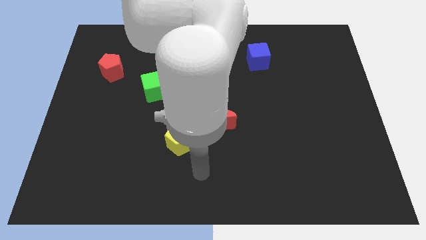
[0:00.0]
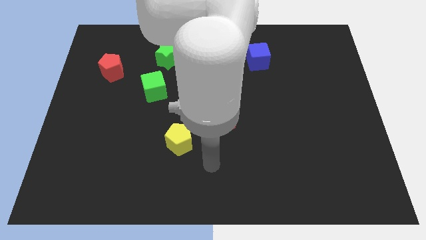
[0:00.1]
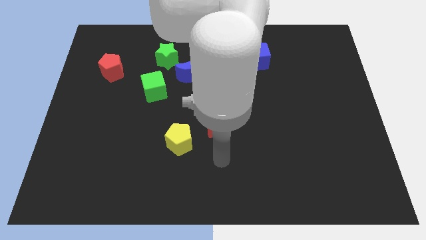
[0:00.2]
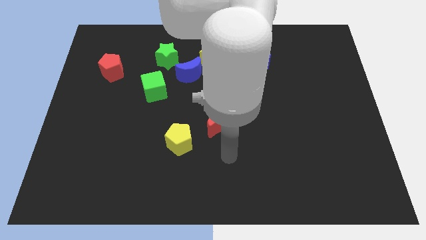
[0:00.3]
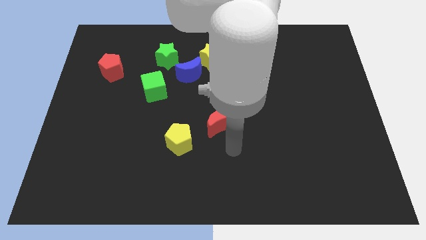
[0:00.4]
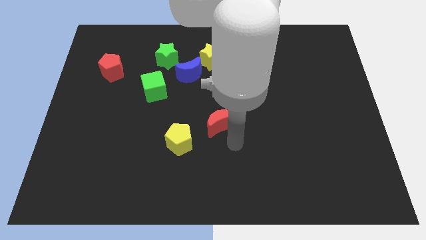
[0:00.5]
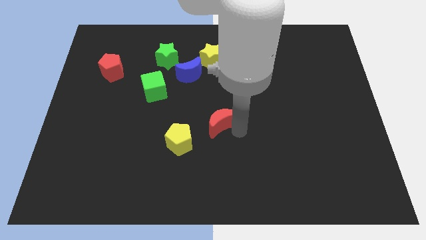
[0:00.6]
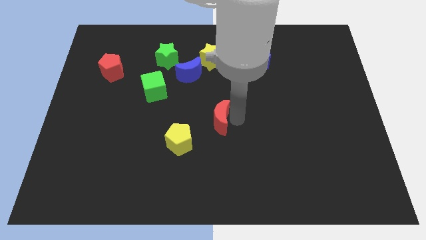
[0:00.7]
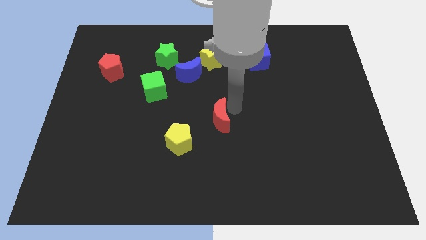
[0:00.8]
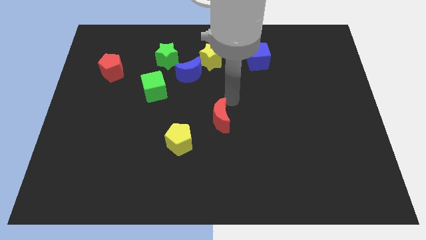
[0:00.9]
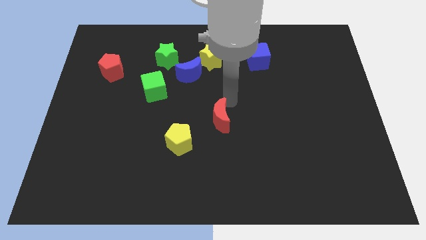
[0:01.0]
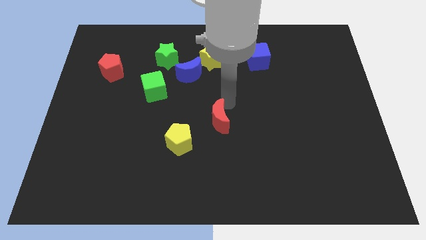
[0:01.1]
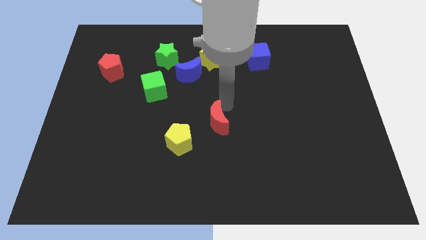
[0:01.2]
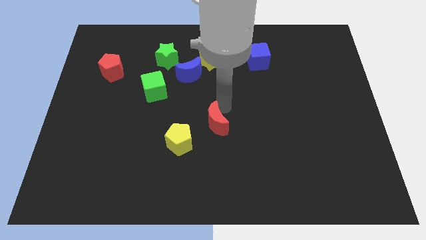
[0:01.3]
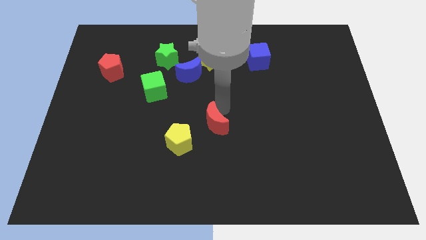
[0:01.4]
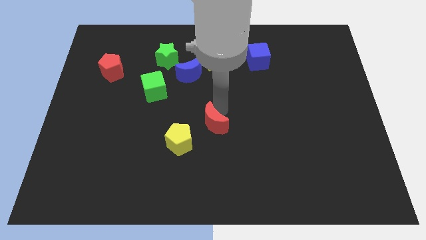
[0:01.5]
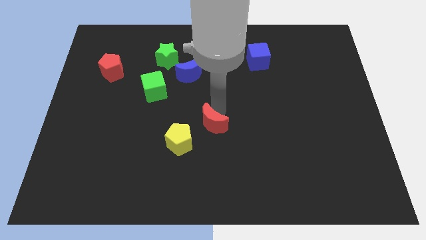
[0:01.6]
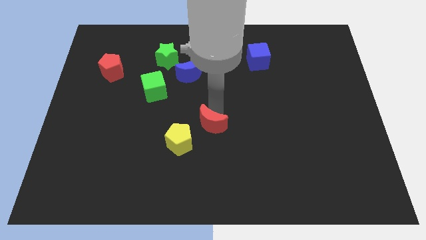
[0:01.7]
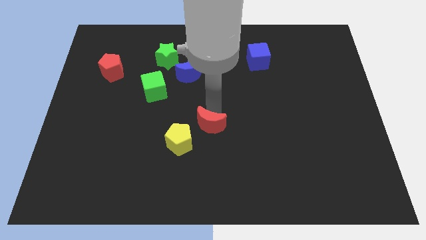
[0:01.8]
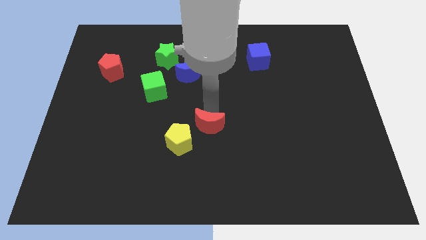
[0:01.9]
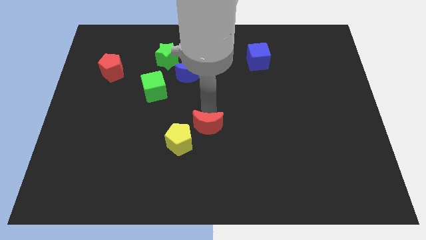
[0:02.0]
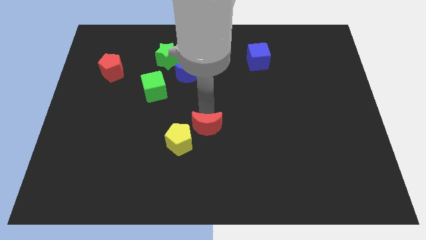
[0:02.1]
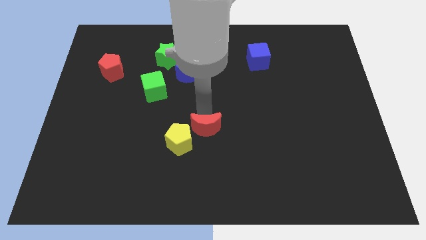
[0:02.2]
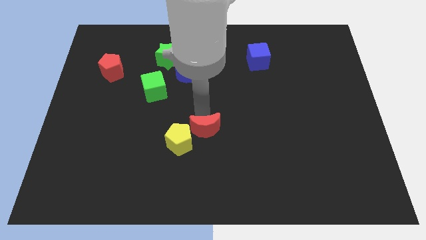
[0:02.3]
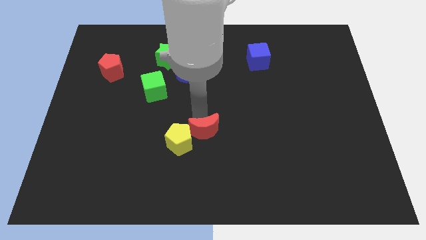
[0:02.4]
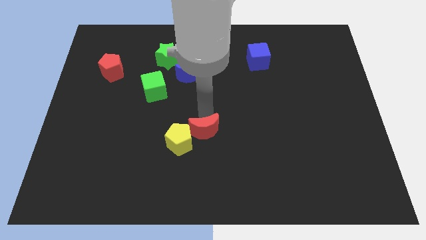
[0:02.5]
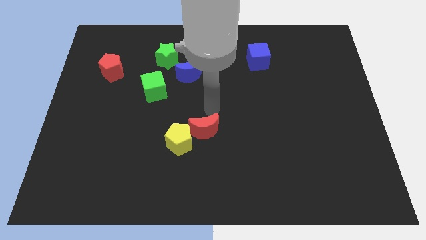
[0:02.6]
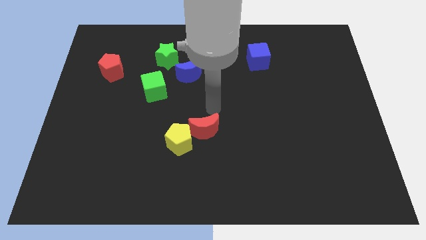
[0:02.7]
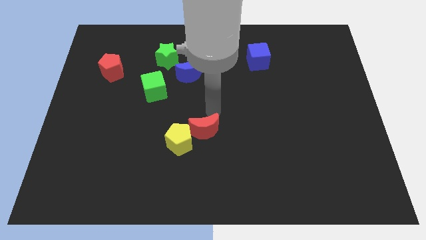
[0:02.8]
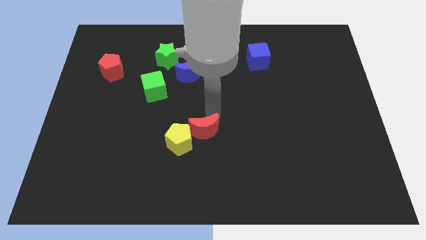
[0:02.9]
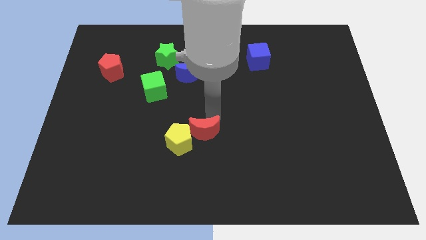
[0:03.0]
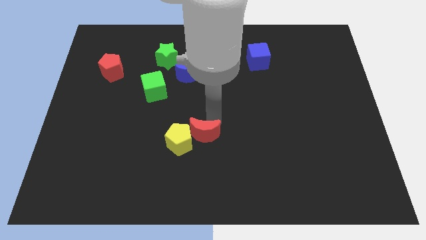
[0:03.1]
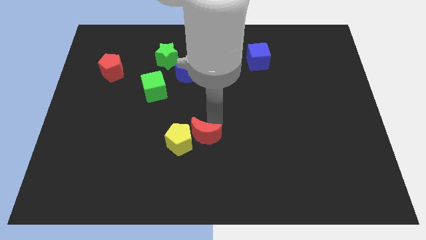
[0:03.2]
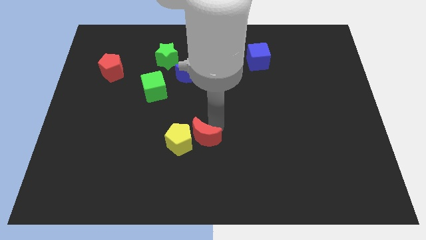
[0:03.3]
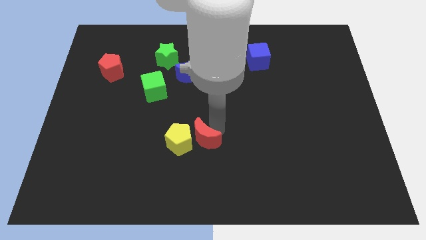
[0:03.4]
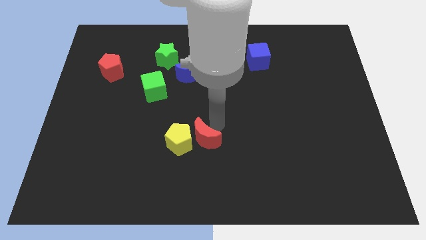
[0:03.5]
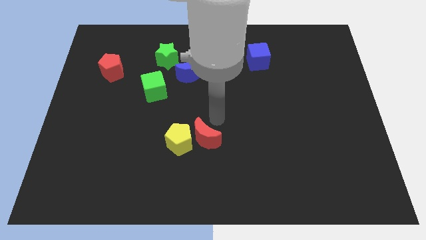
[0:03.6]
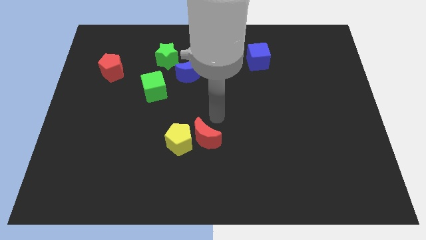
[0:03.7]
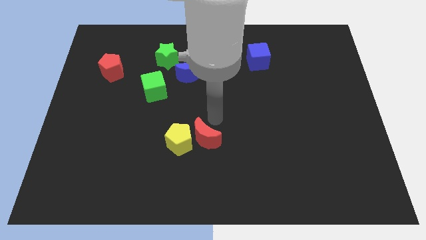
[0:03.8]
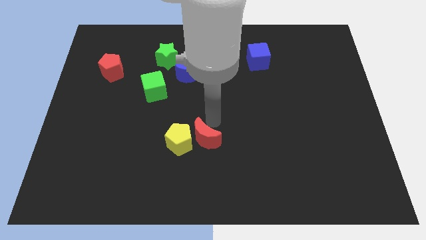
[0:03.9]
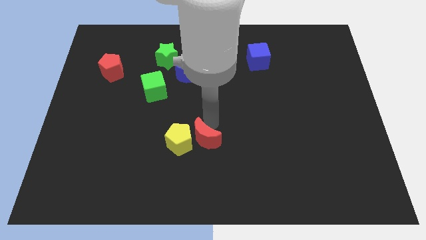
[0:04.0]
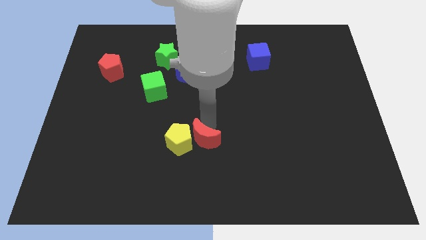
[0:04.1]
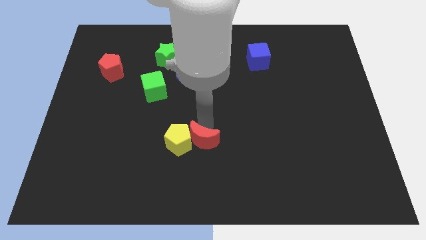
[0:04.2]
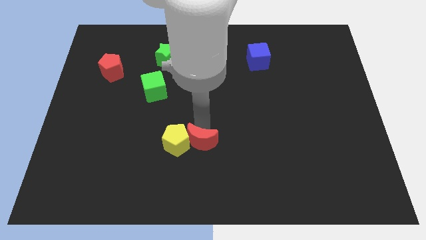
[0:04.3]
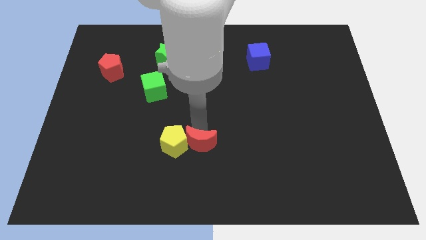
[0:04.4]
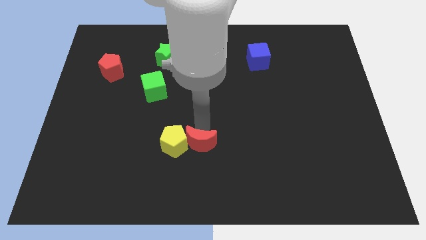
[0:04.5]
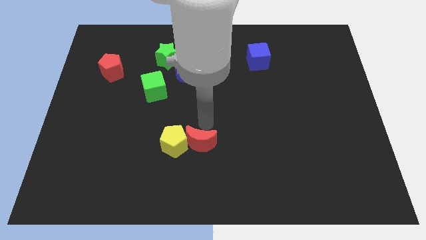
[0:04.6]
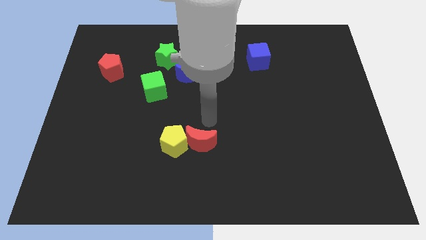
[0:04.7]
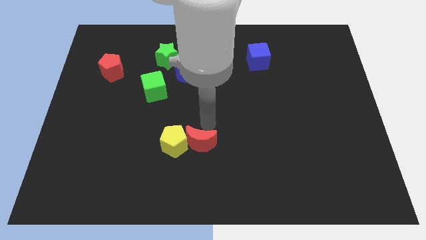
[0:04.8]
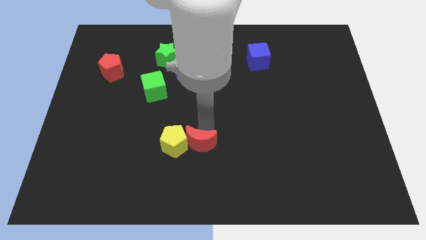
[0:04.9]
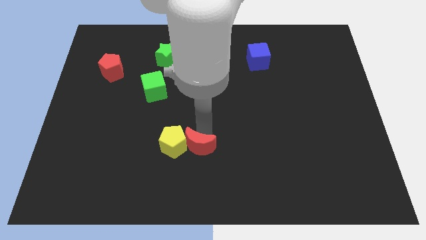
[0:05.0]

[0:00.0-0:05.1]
move the red moon diagonally downwards and left a little bit

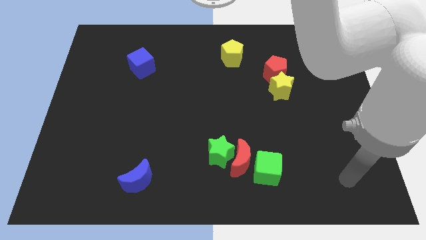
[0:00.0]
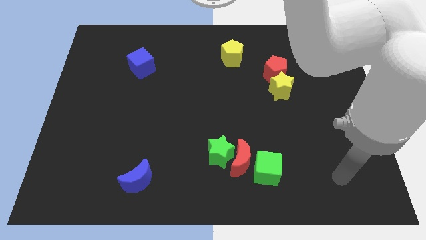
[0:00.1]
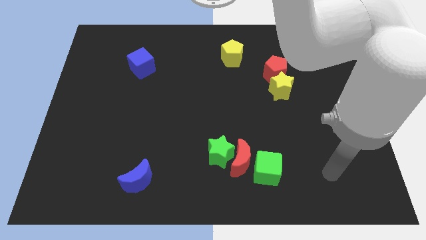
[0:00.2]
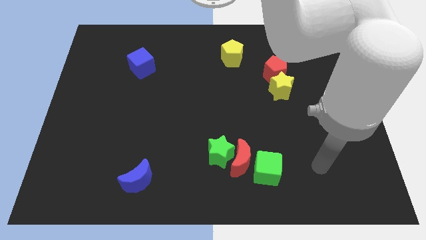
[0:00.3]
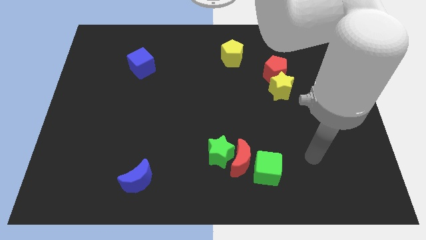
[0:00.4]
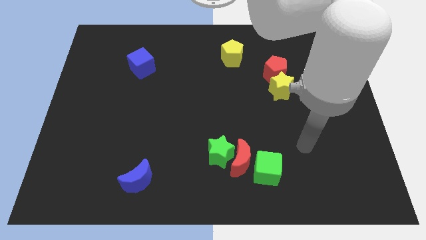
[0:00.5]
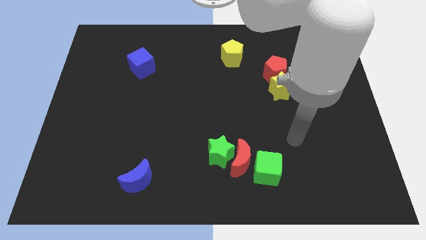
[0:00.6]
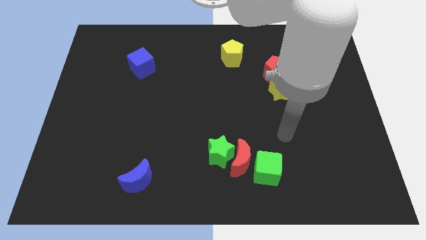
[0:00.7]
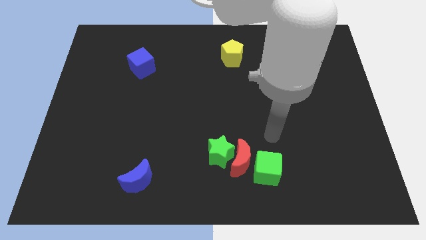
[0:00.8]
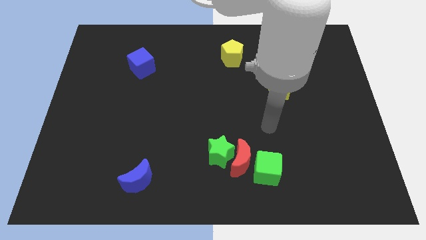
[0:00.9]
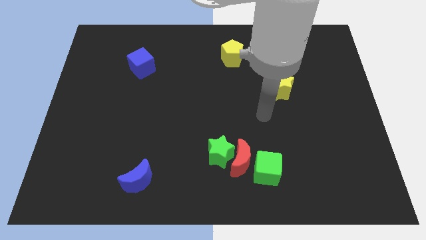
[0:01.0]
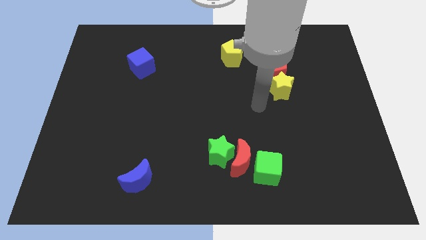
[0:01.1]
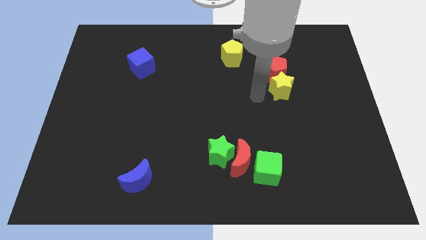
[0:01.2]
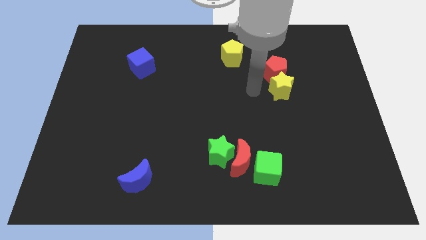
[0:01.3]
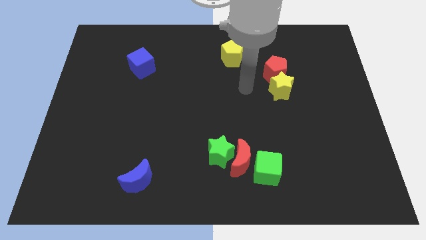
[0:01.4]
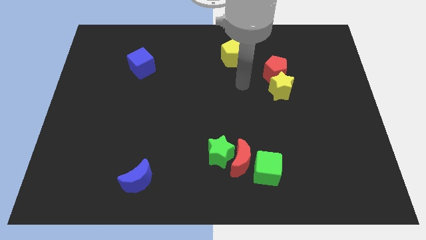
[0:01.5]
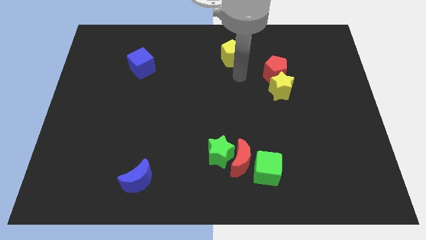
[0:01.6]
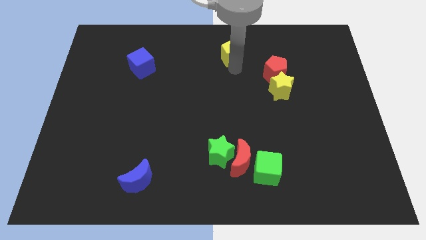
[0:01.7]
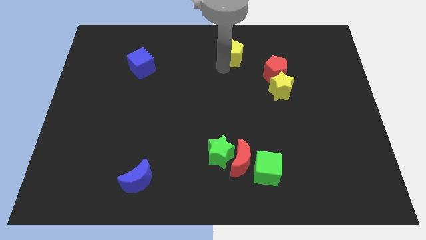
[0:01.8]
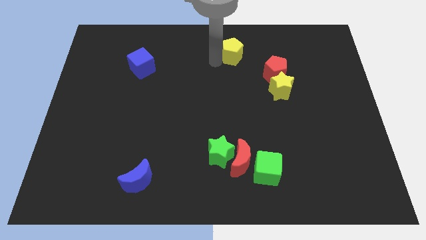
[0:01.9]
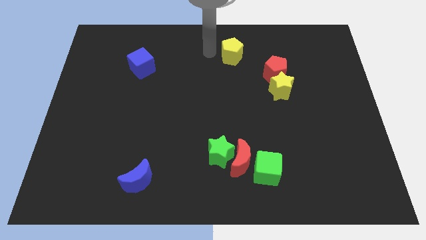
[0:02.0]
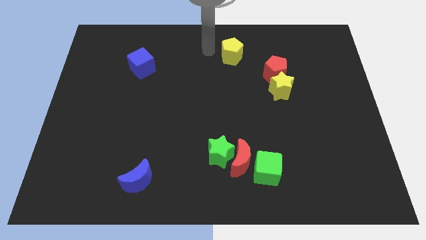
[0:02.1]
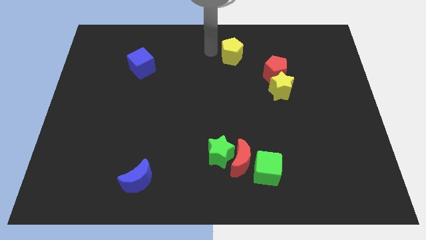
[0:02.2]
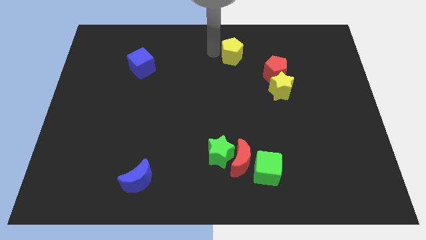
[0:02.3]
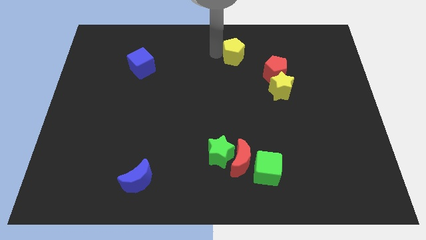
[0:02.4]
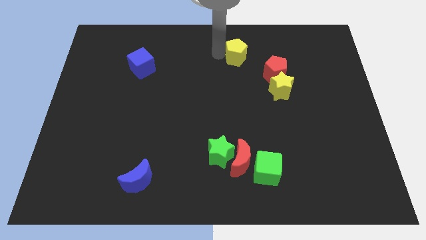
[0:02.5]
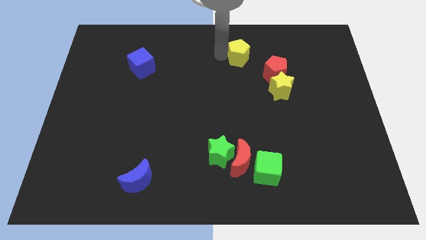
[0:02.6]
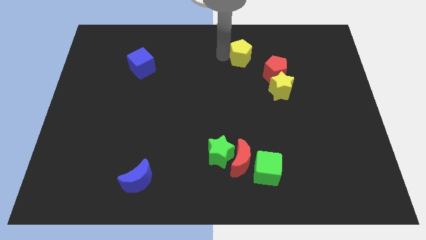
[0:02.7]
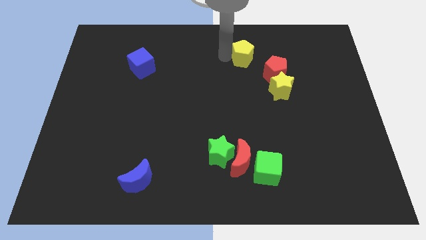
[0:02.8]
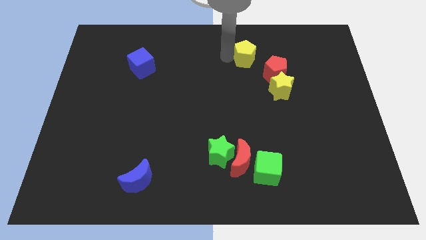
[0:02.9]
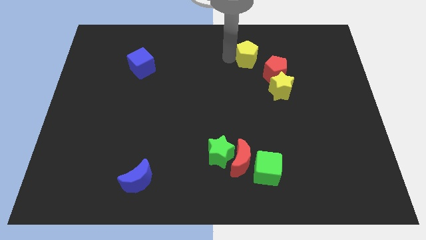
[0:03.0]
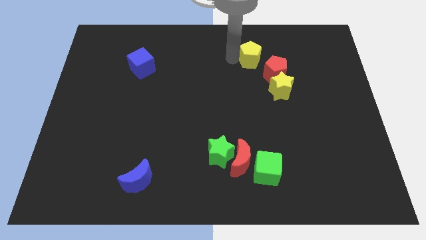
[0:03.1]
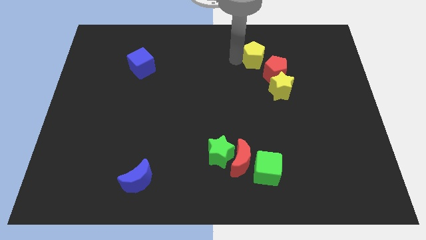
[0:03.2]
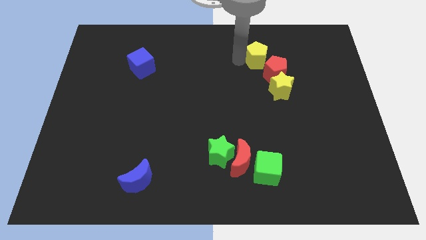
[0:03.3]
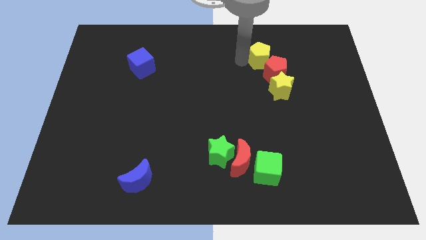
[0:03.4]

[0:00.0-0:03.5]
slide the yellow pentagon a little bit to the right
